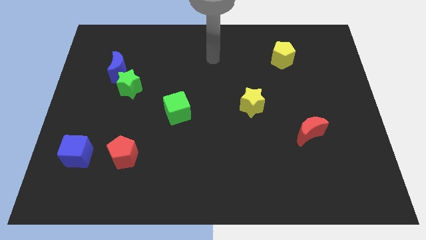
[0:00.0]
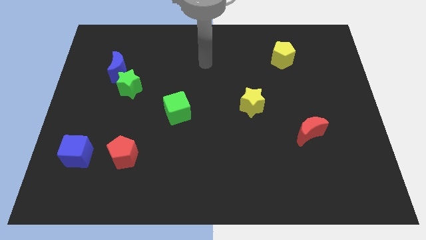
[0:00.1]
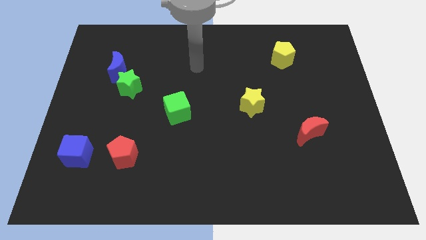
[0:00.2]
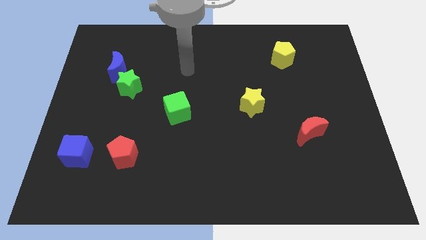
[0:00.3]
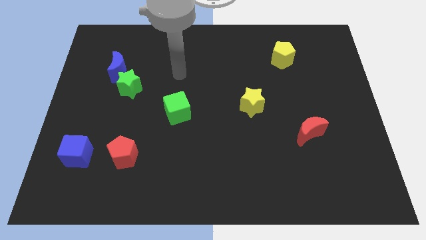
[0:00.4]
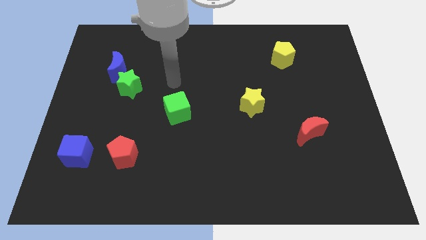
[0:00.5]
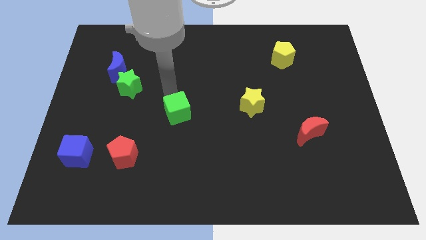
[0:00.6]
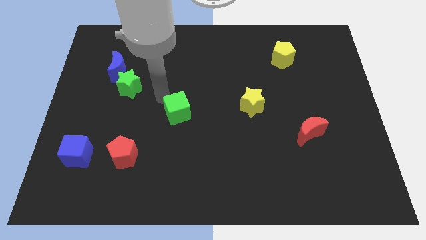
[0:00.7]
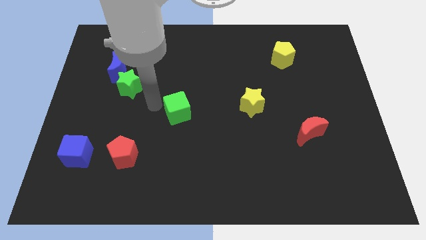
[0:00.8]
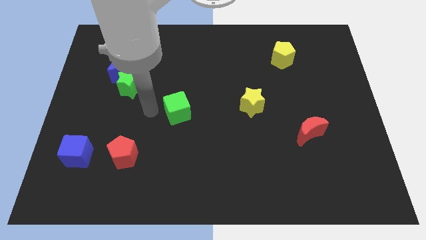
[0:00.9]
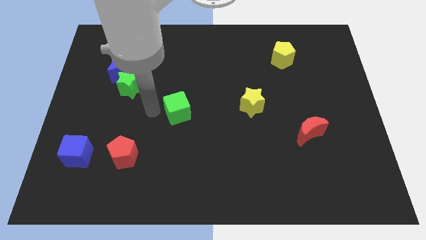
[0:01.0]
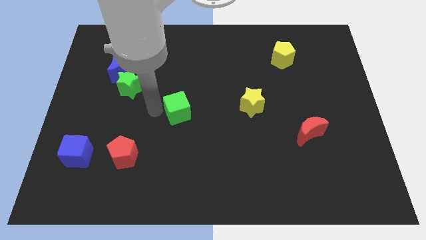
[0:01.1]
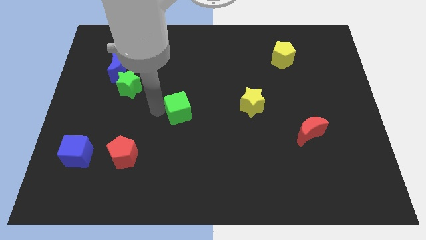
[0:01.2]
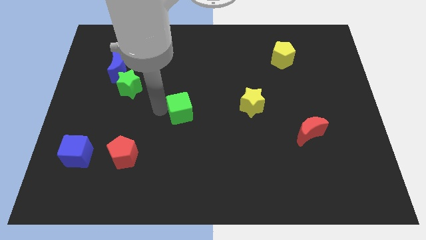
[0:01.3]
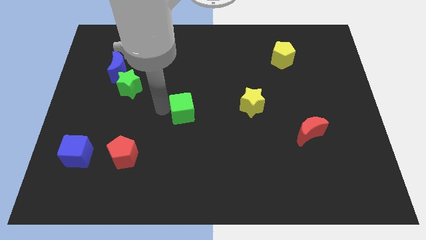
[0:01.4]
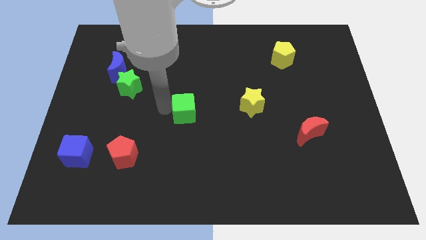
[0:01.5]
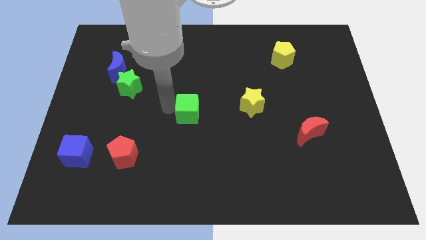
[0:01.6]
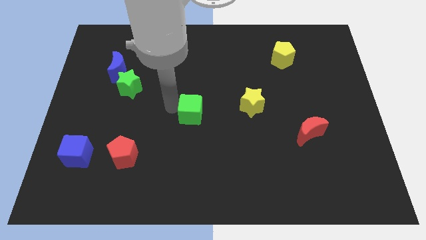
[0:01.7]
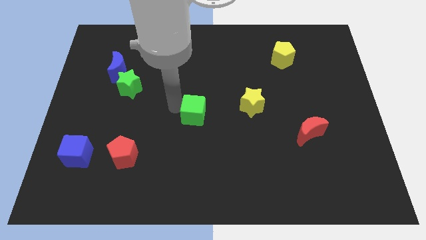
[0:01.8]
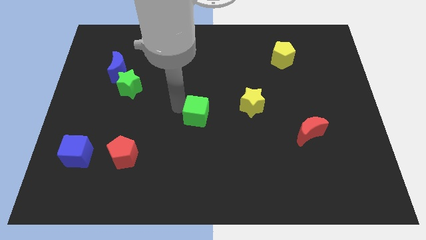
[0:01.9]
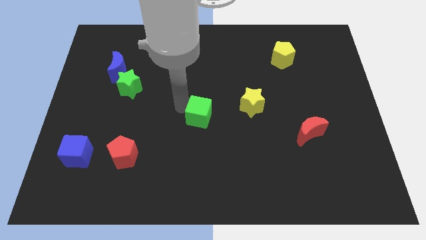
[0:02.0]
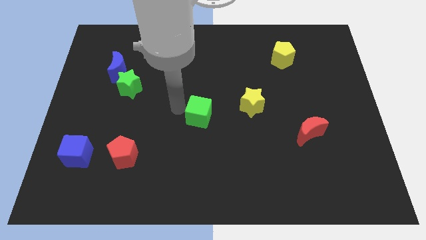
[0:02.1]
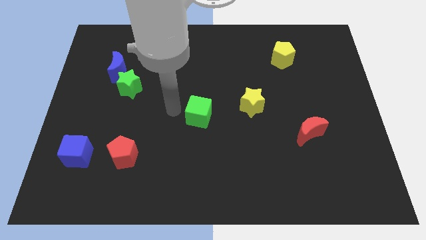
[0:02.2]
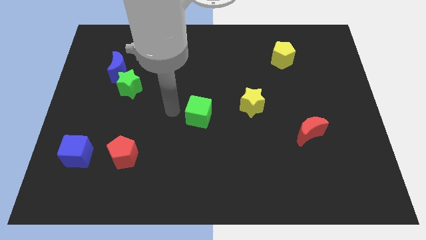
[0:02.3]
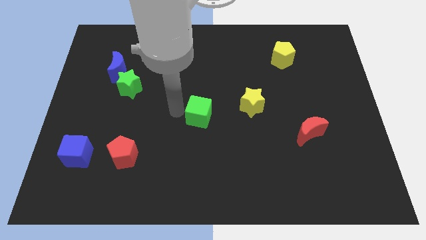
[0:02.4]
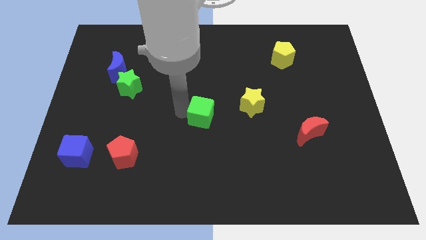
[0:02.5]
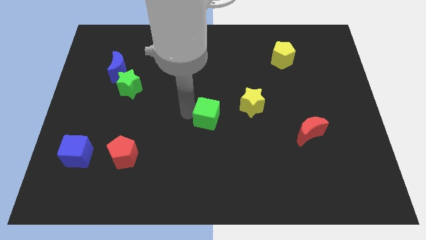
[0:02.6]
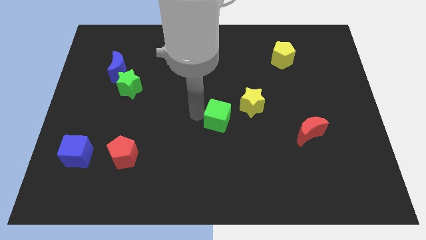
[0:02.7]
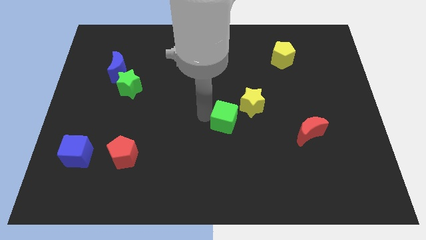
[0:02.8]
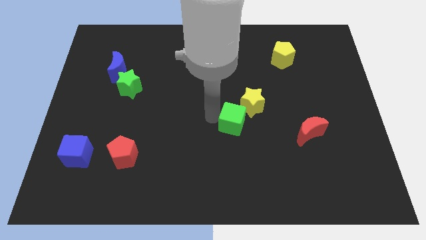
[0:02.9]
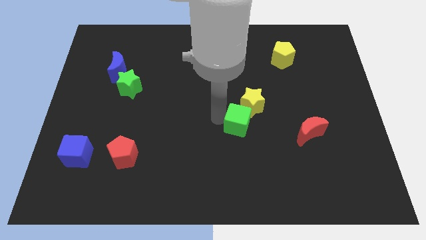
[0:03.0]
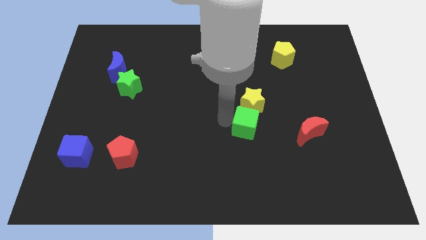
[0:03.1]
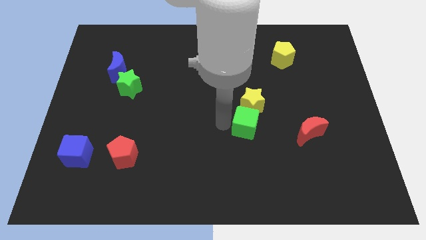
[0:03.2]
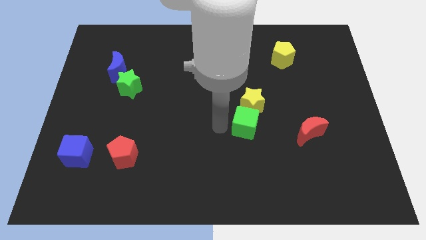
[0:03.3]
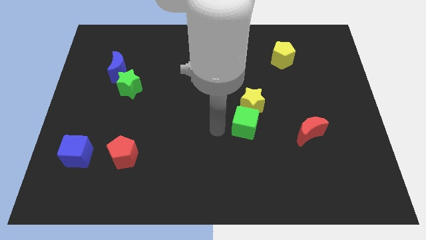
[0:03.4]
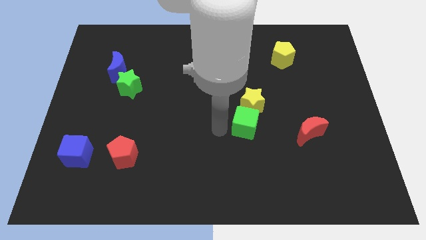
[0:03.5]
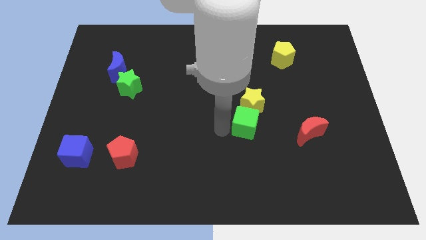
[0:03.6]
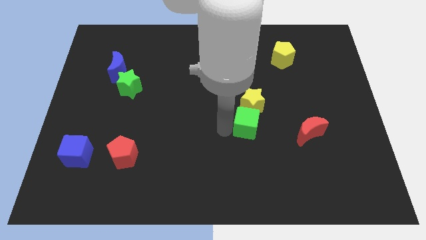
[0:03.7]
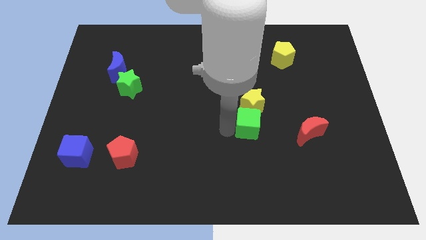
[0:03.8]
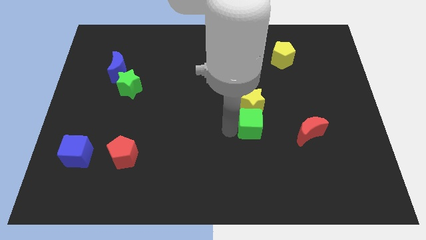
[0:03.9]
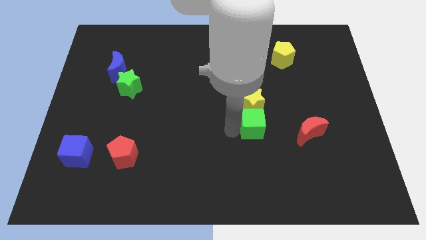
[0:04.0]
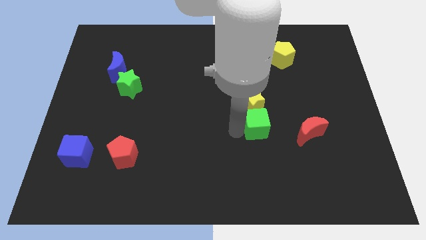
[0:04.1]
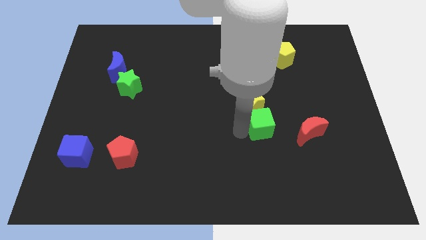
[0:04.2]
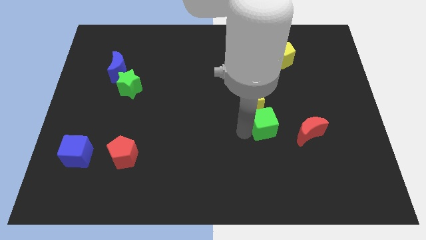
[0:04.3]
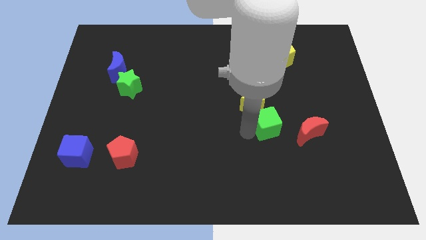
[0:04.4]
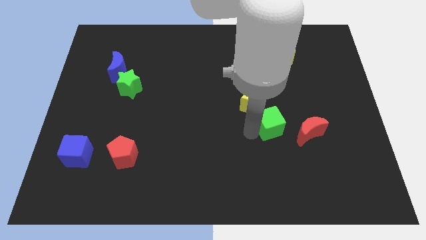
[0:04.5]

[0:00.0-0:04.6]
push the green cube to the right

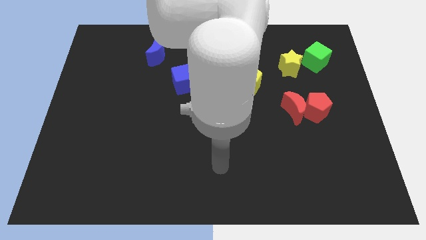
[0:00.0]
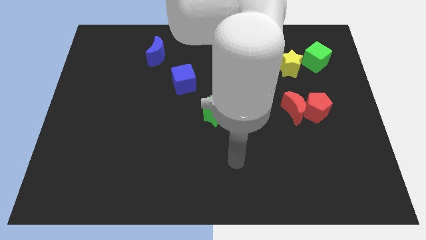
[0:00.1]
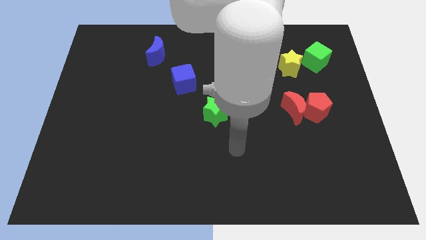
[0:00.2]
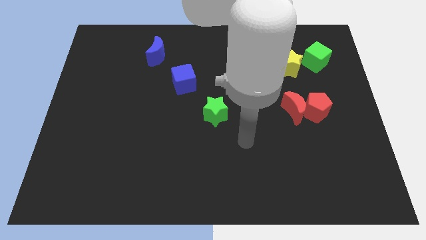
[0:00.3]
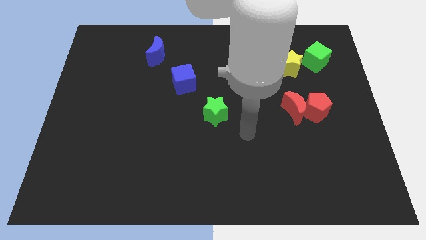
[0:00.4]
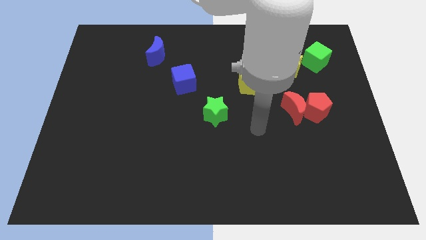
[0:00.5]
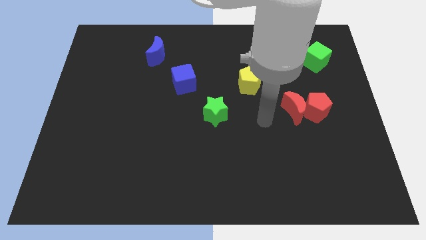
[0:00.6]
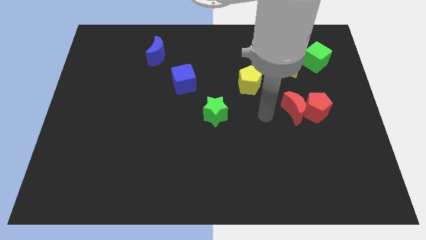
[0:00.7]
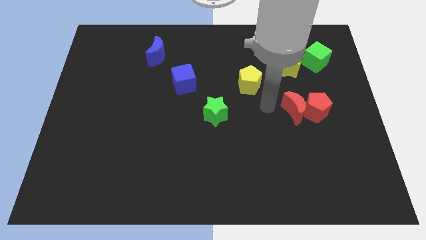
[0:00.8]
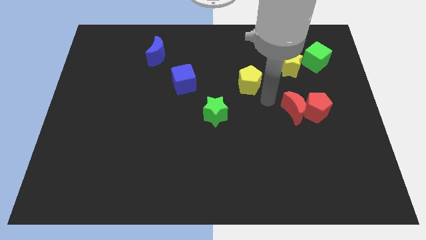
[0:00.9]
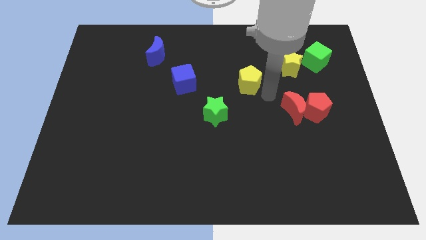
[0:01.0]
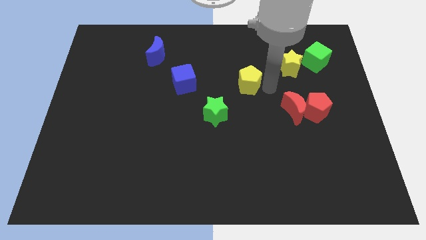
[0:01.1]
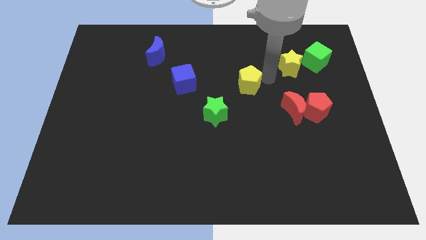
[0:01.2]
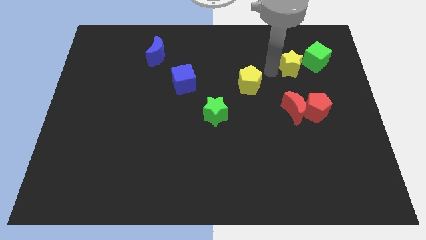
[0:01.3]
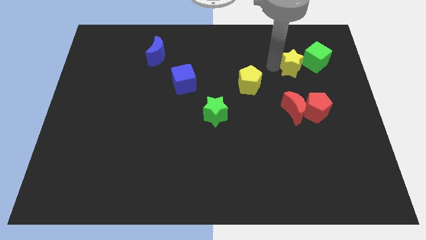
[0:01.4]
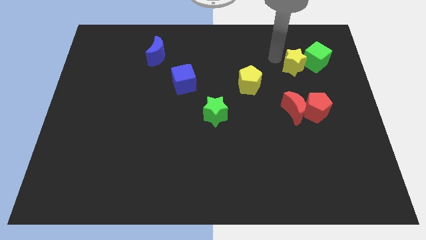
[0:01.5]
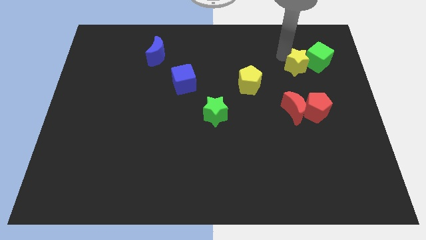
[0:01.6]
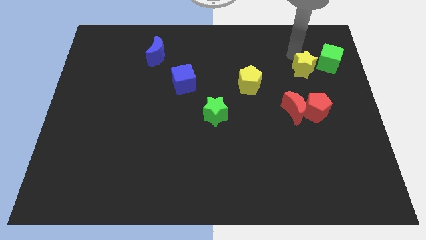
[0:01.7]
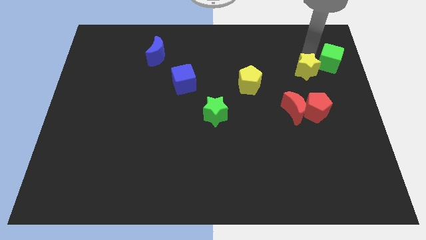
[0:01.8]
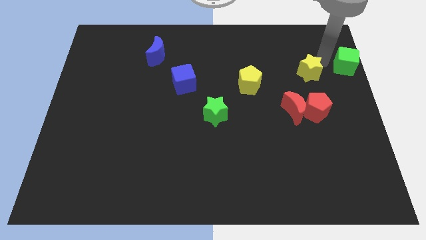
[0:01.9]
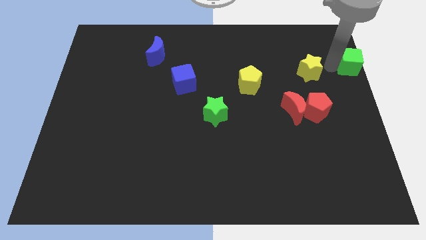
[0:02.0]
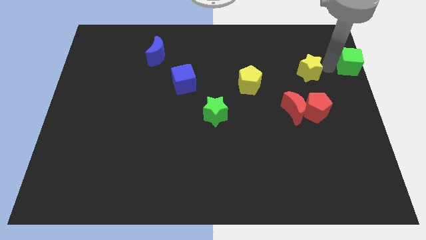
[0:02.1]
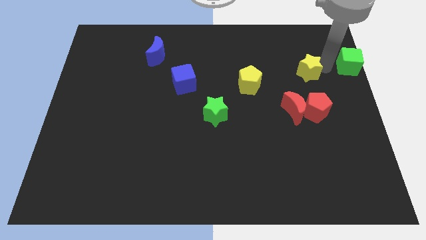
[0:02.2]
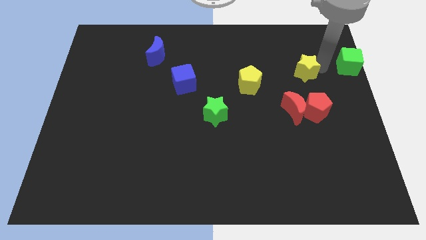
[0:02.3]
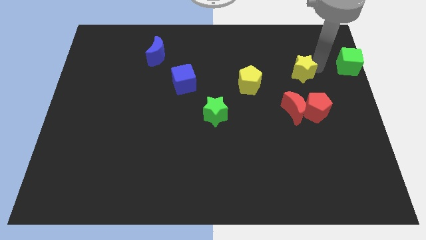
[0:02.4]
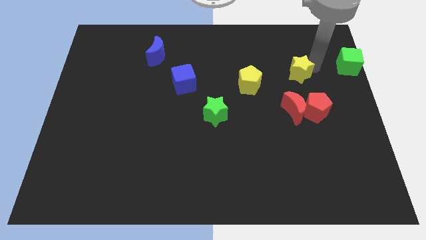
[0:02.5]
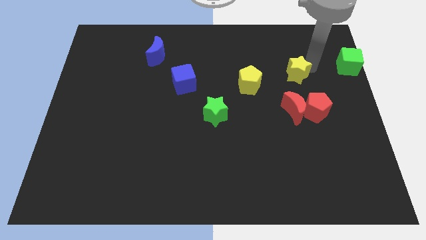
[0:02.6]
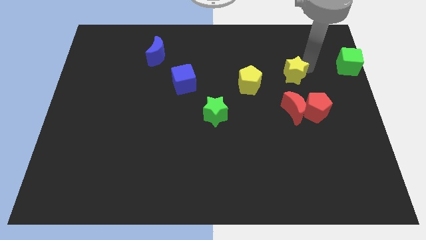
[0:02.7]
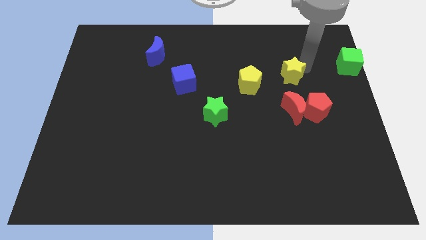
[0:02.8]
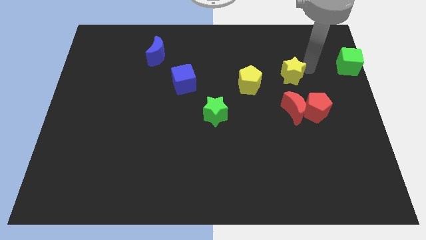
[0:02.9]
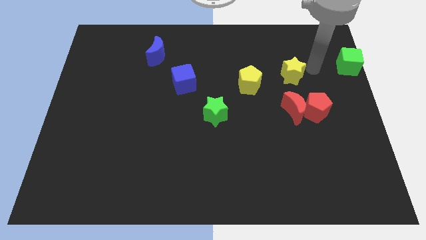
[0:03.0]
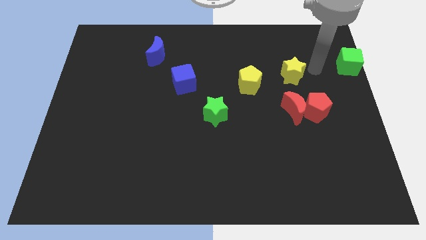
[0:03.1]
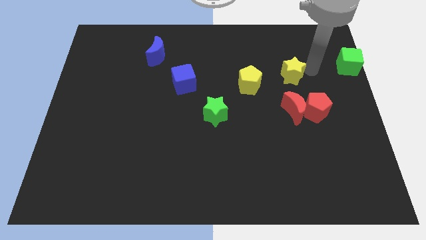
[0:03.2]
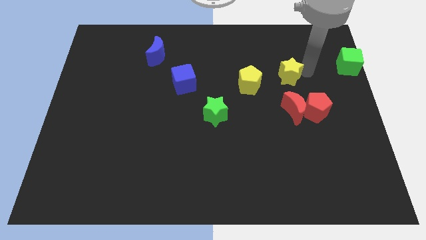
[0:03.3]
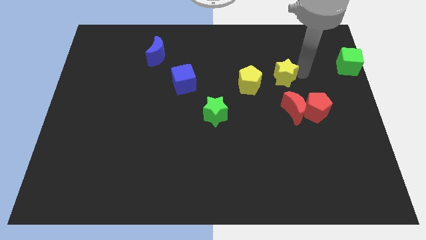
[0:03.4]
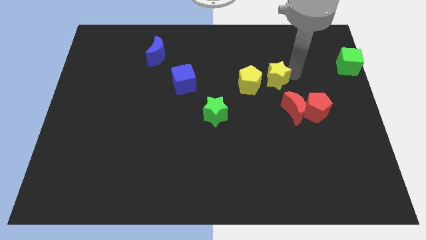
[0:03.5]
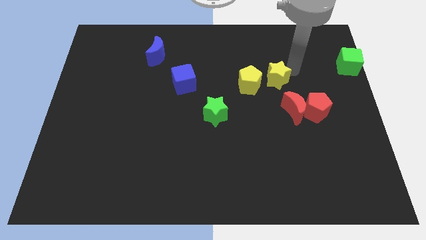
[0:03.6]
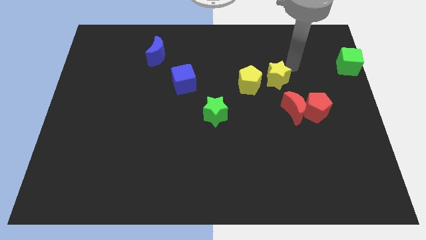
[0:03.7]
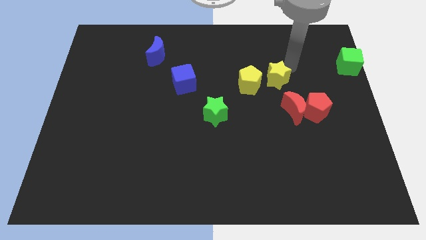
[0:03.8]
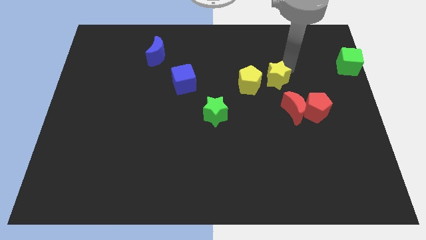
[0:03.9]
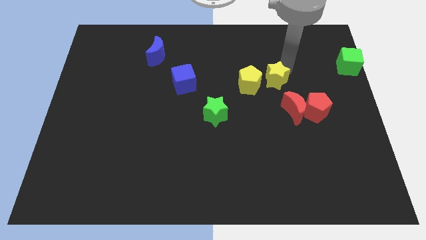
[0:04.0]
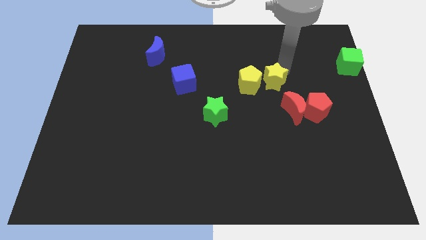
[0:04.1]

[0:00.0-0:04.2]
slightly slide the yellow star down and to the left diagonally
